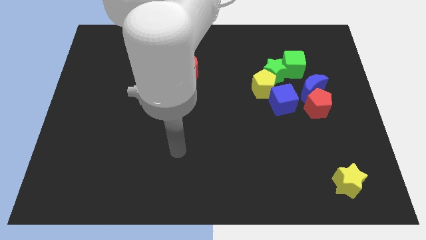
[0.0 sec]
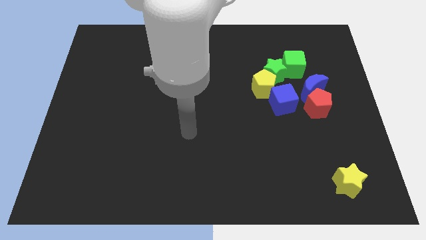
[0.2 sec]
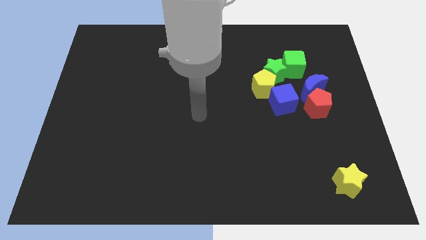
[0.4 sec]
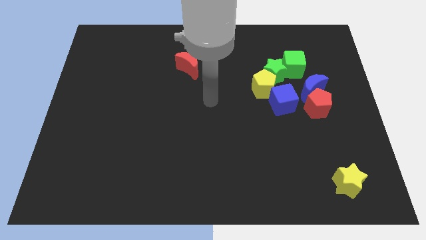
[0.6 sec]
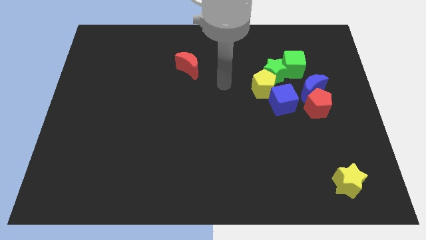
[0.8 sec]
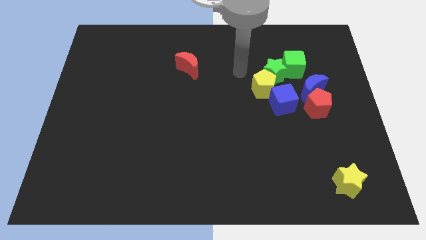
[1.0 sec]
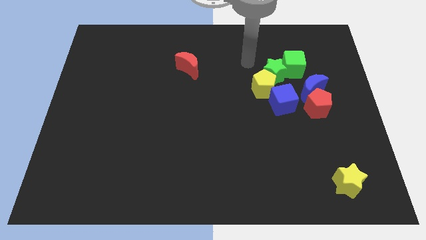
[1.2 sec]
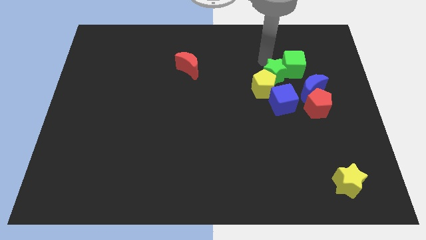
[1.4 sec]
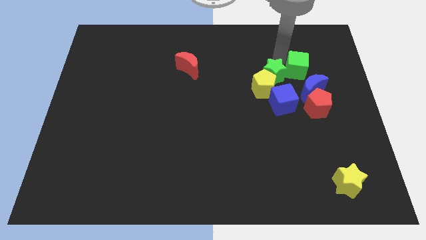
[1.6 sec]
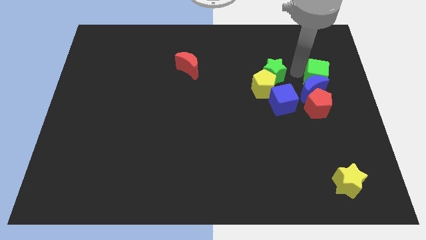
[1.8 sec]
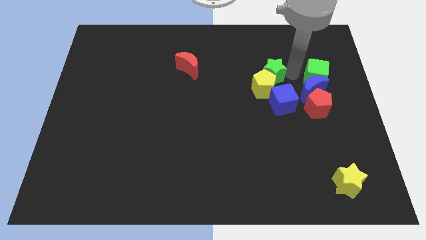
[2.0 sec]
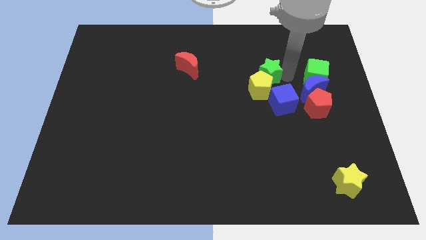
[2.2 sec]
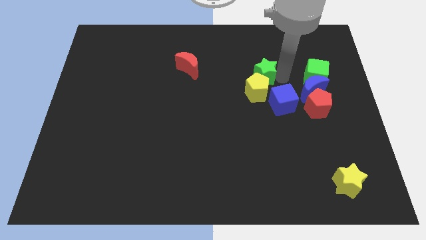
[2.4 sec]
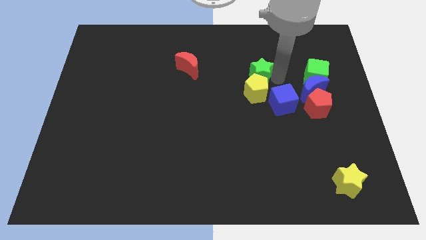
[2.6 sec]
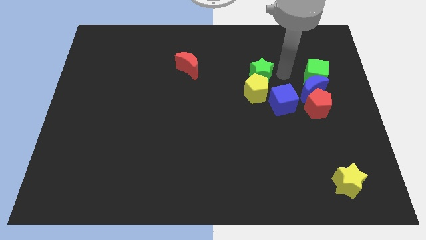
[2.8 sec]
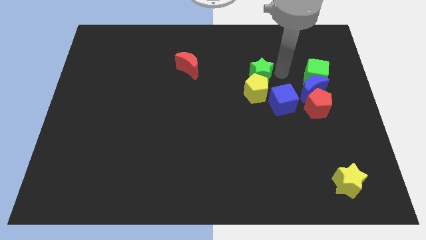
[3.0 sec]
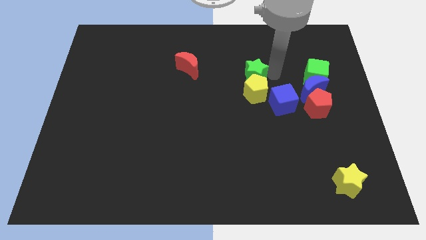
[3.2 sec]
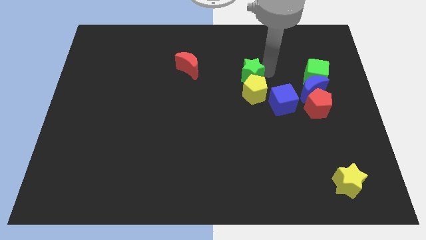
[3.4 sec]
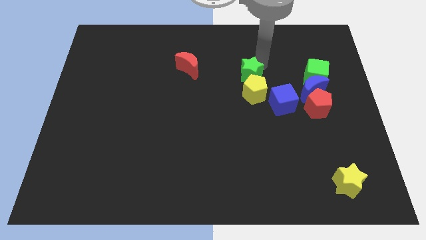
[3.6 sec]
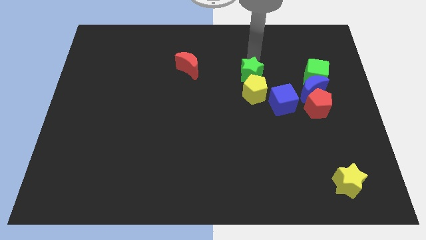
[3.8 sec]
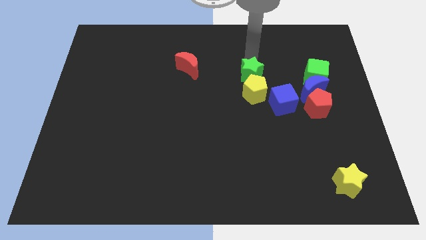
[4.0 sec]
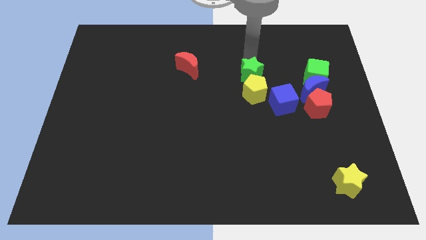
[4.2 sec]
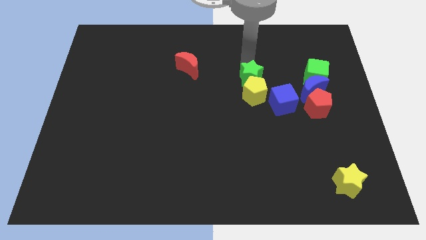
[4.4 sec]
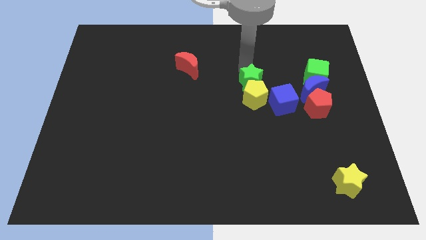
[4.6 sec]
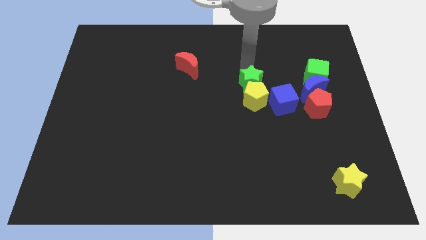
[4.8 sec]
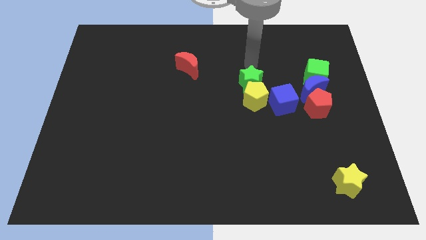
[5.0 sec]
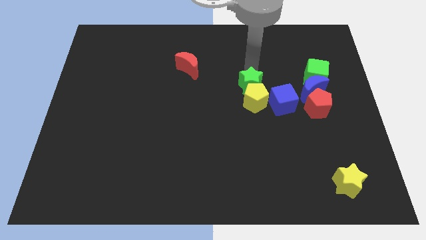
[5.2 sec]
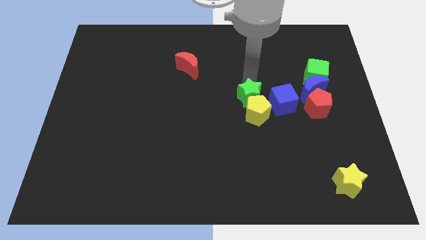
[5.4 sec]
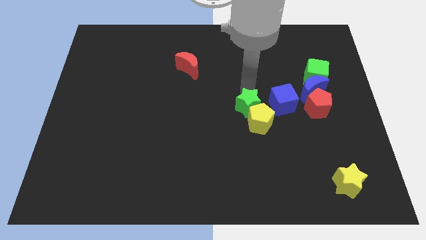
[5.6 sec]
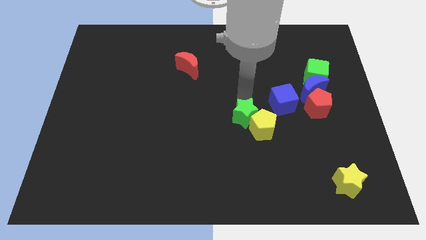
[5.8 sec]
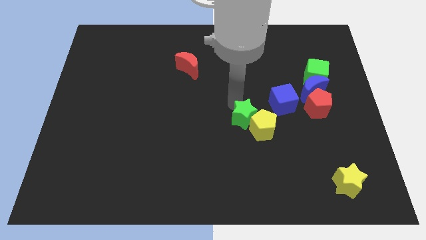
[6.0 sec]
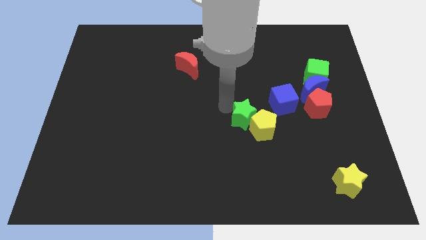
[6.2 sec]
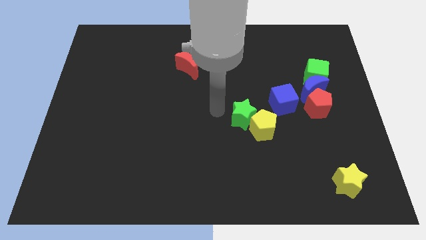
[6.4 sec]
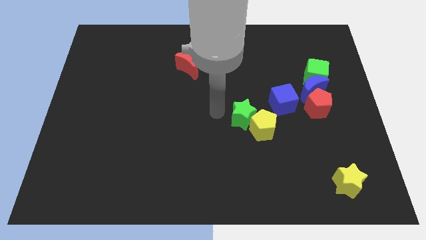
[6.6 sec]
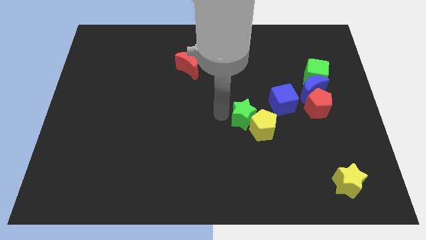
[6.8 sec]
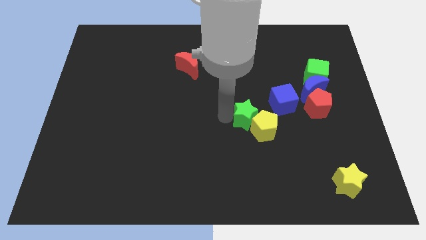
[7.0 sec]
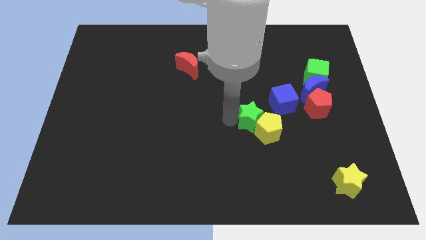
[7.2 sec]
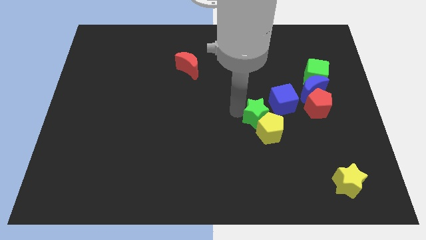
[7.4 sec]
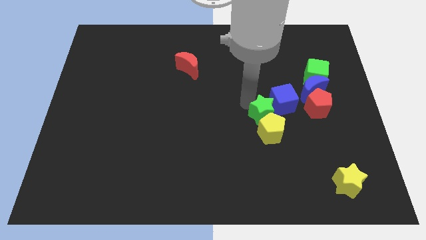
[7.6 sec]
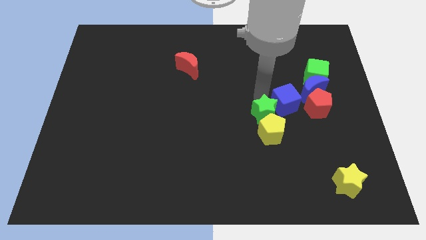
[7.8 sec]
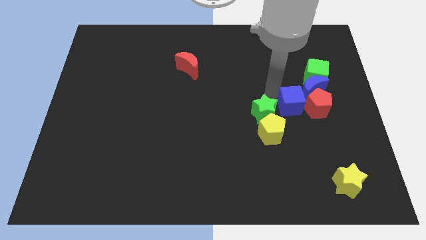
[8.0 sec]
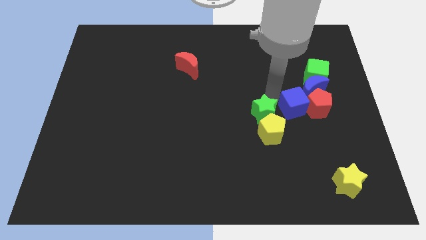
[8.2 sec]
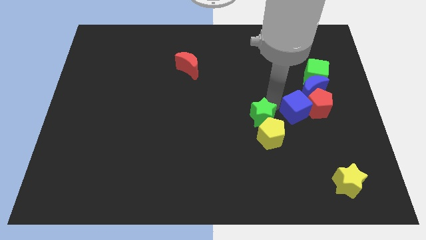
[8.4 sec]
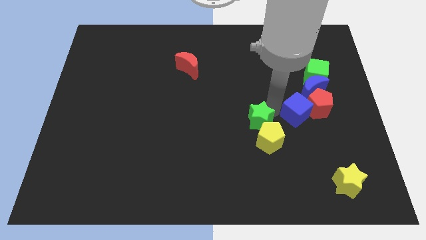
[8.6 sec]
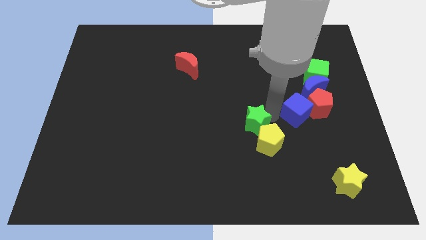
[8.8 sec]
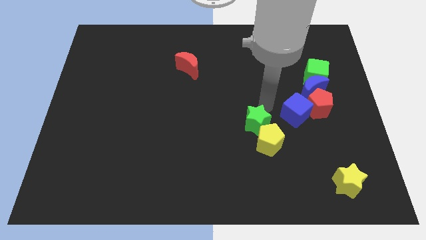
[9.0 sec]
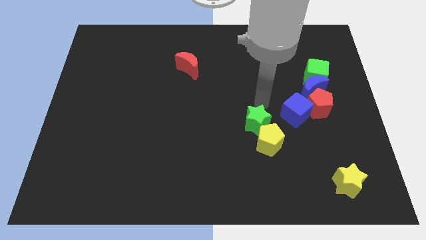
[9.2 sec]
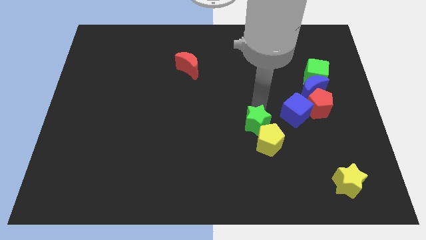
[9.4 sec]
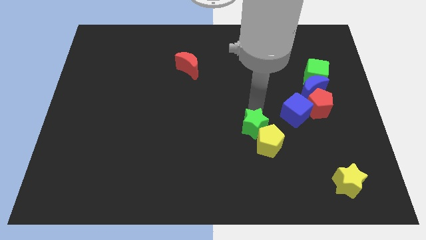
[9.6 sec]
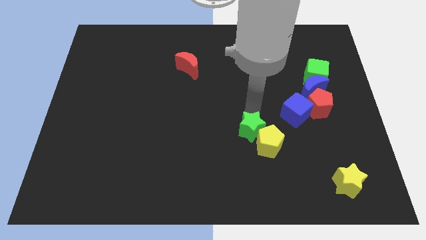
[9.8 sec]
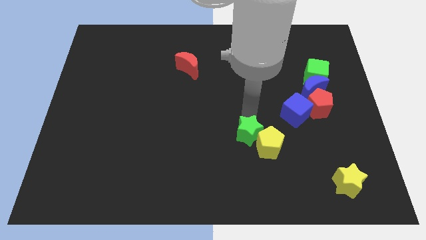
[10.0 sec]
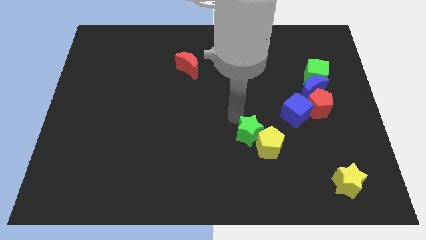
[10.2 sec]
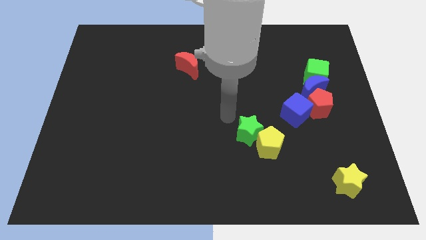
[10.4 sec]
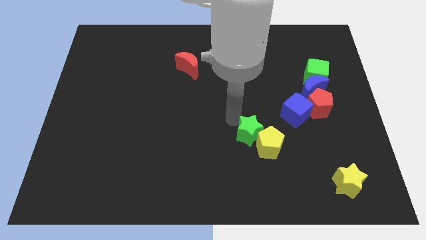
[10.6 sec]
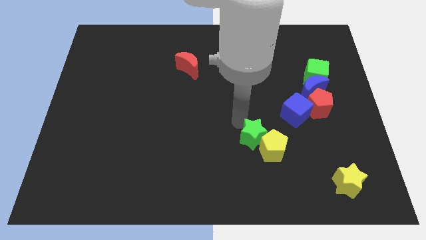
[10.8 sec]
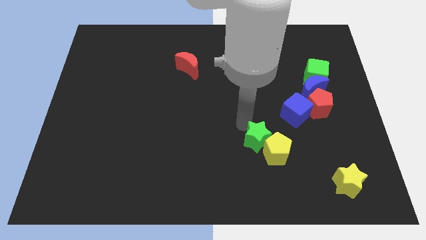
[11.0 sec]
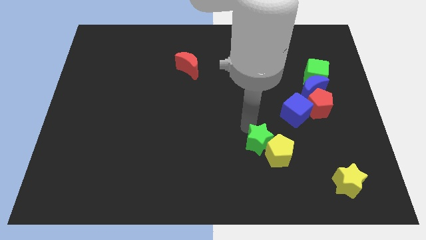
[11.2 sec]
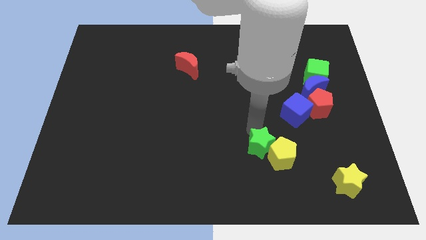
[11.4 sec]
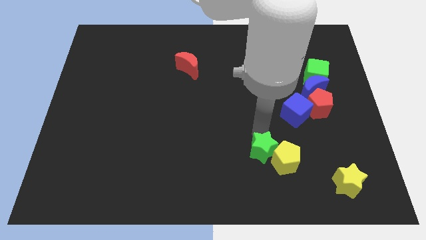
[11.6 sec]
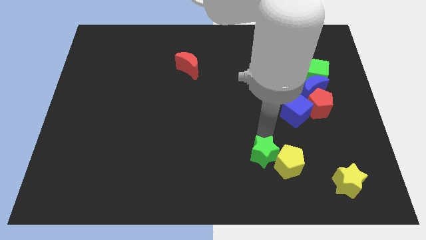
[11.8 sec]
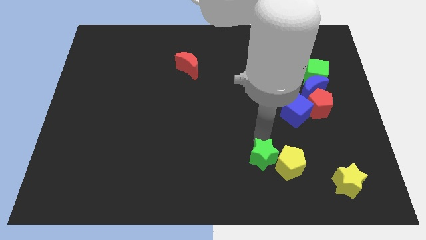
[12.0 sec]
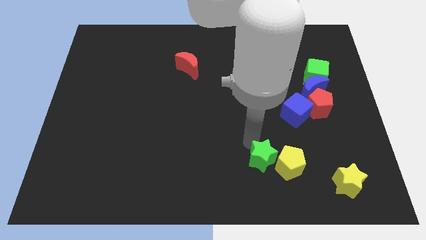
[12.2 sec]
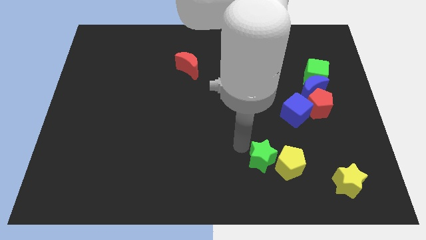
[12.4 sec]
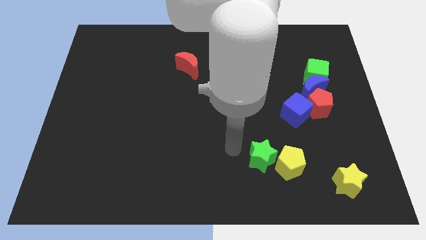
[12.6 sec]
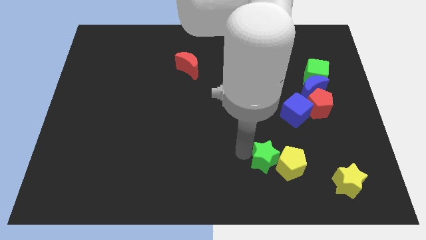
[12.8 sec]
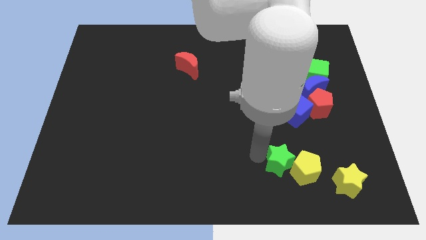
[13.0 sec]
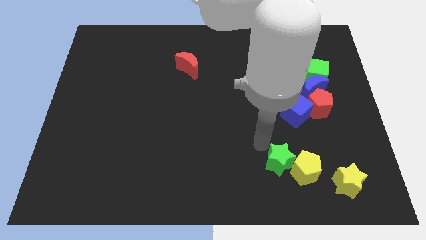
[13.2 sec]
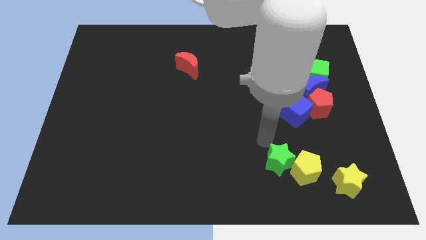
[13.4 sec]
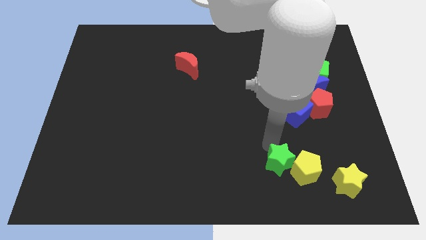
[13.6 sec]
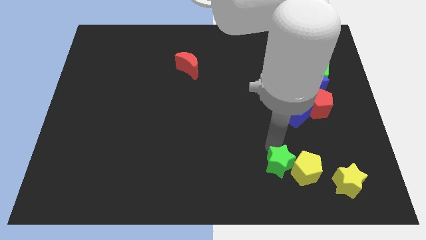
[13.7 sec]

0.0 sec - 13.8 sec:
push the green star to the left of the yellow star

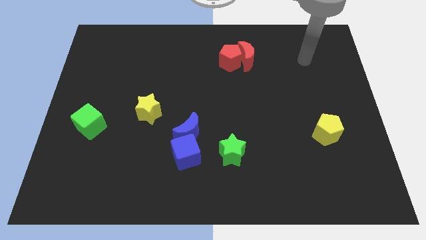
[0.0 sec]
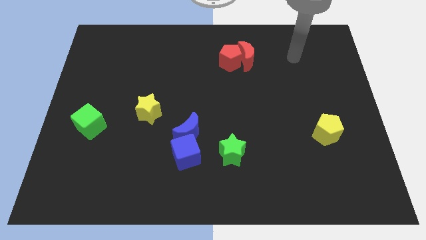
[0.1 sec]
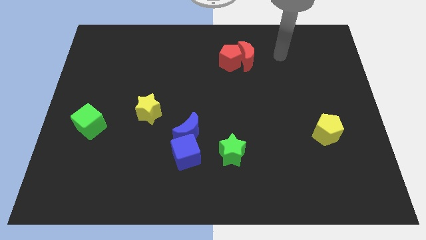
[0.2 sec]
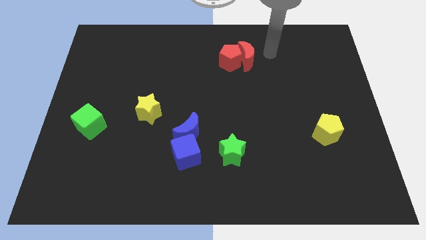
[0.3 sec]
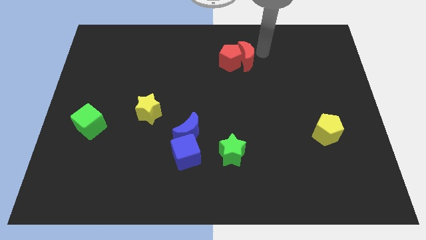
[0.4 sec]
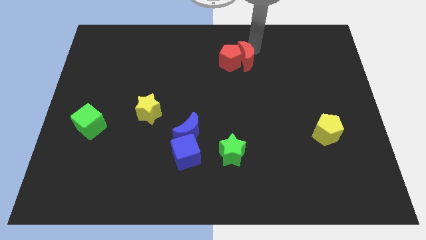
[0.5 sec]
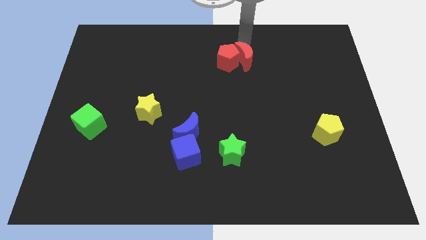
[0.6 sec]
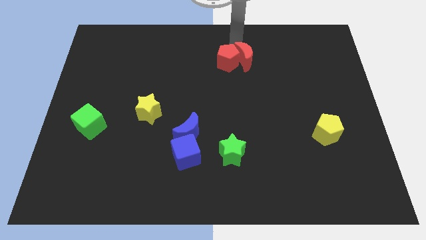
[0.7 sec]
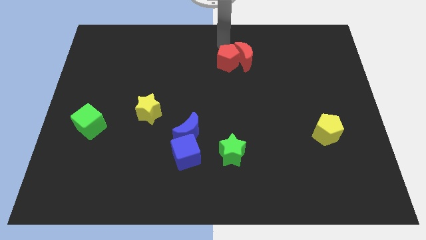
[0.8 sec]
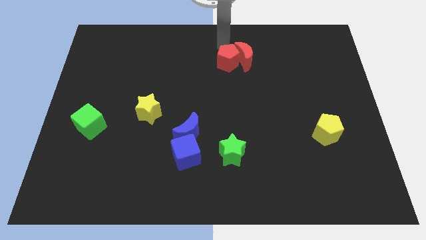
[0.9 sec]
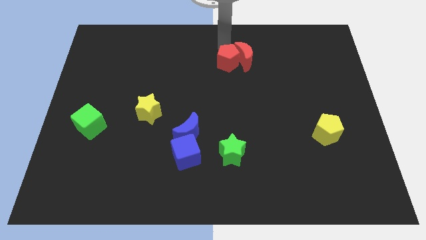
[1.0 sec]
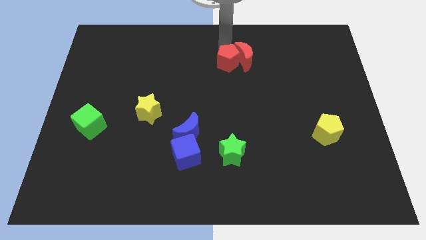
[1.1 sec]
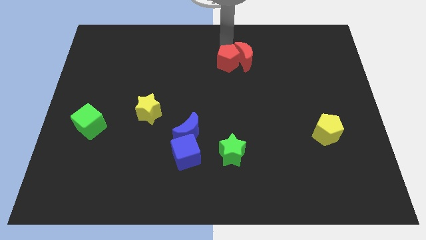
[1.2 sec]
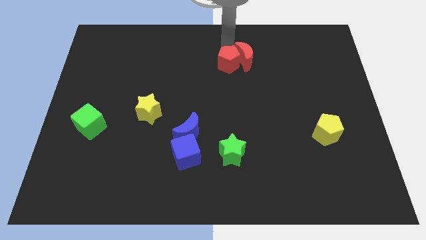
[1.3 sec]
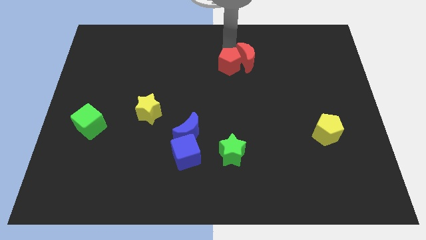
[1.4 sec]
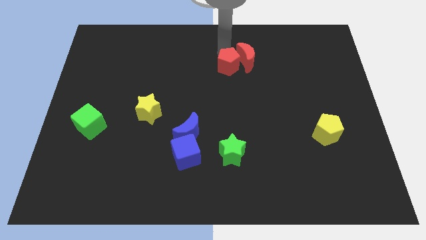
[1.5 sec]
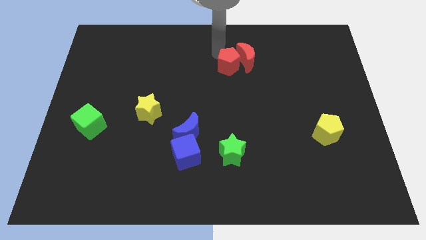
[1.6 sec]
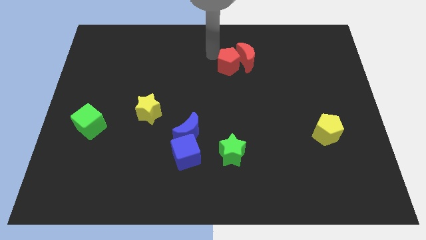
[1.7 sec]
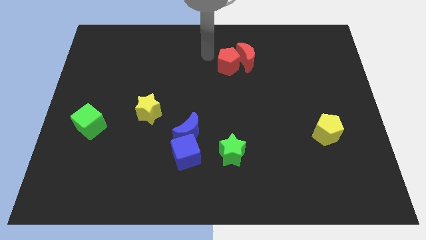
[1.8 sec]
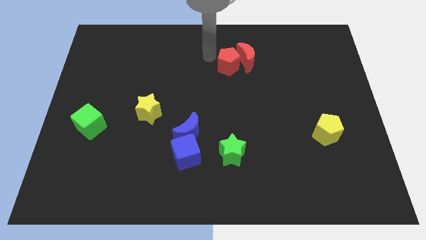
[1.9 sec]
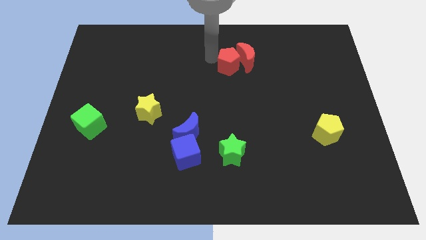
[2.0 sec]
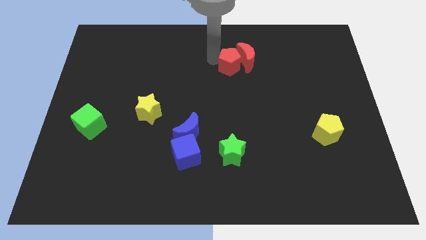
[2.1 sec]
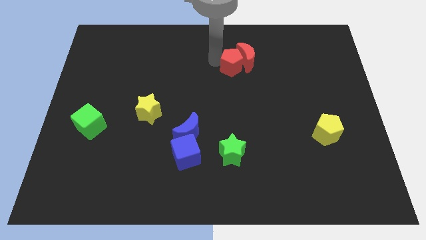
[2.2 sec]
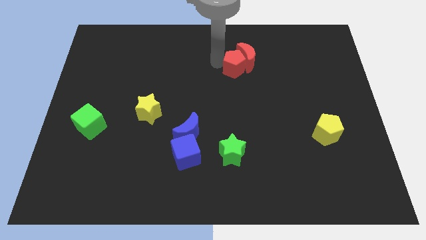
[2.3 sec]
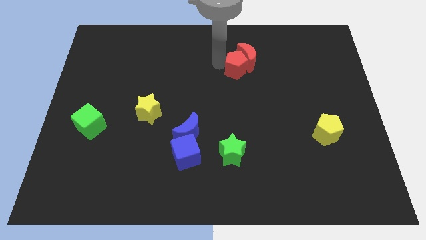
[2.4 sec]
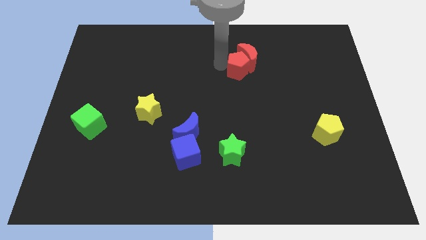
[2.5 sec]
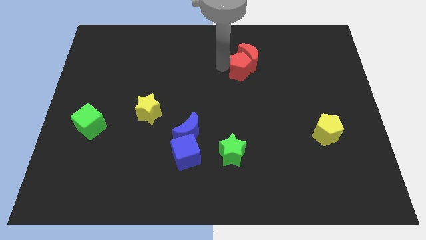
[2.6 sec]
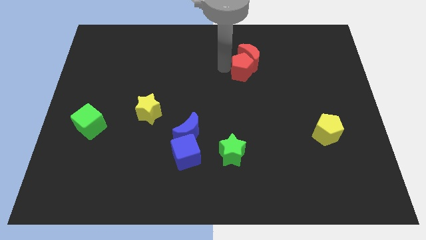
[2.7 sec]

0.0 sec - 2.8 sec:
slide the red pentagon to the bottom right of the red moon
